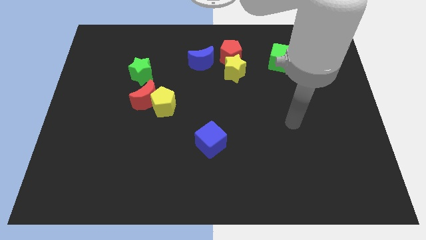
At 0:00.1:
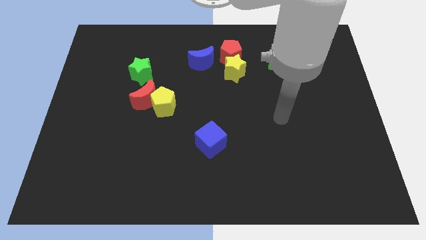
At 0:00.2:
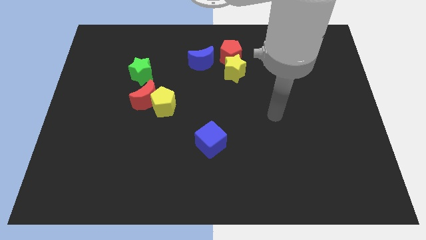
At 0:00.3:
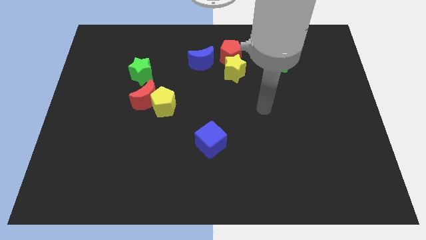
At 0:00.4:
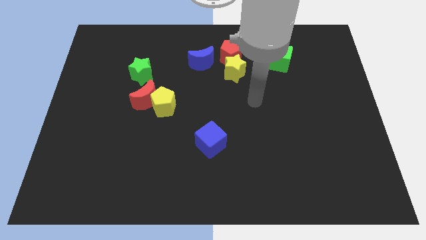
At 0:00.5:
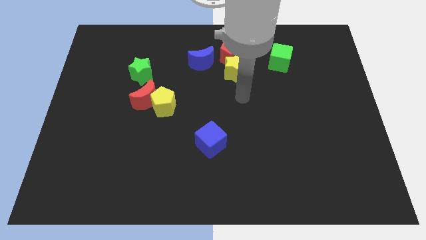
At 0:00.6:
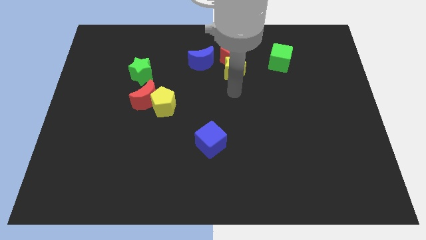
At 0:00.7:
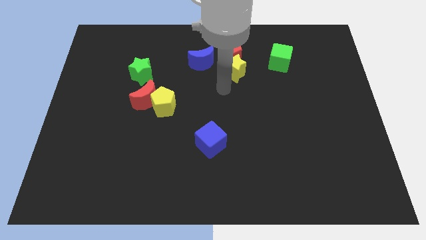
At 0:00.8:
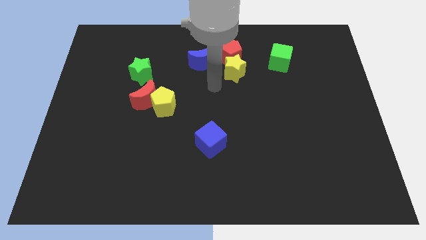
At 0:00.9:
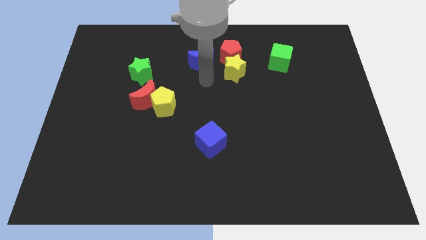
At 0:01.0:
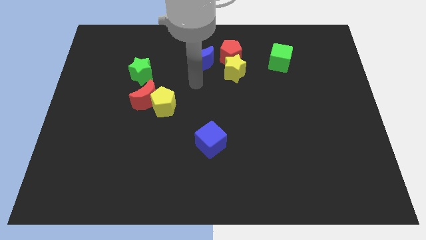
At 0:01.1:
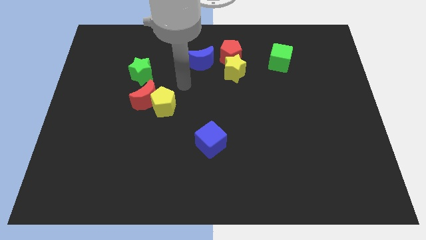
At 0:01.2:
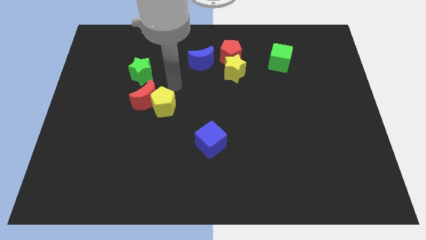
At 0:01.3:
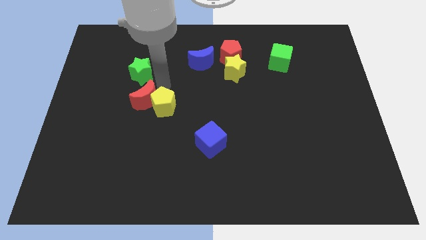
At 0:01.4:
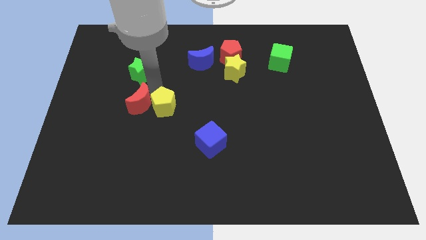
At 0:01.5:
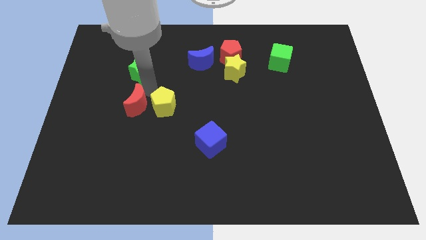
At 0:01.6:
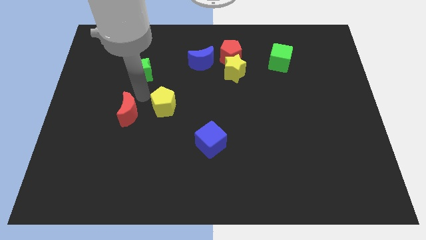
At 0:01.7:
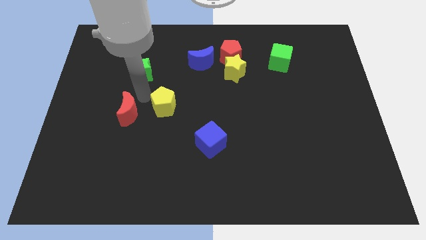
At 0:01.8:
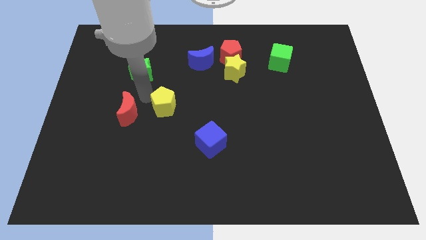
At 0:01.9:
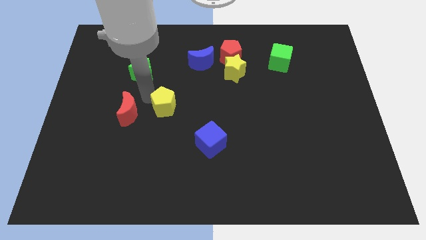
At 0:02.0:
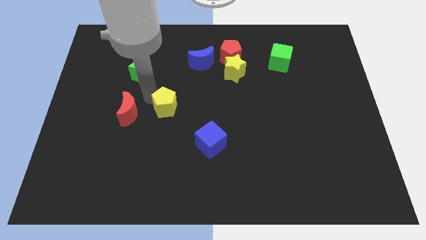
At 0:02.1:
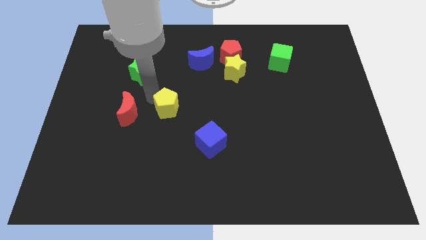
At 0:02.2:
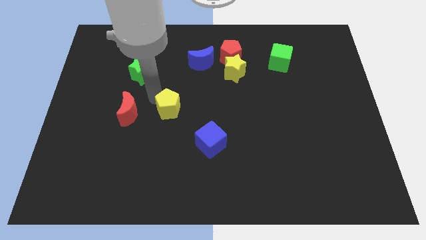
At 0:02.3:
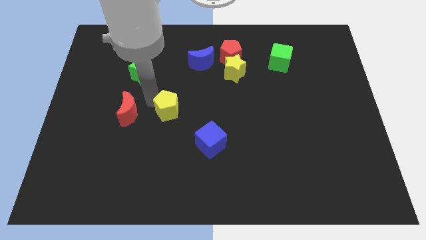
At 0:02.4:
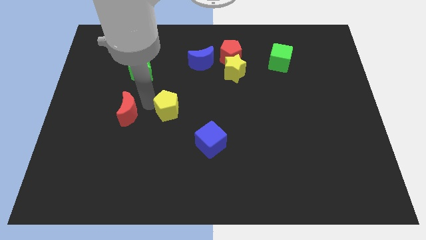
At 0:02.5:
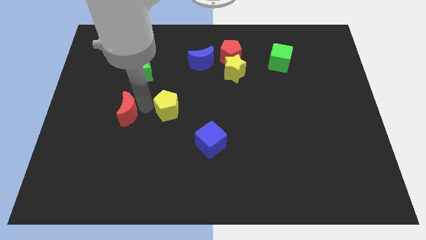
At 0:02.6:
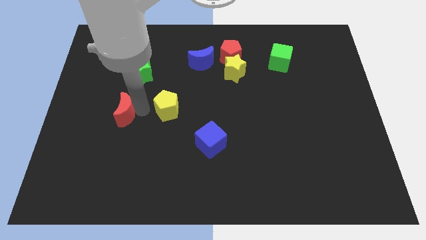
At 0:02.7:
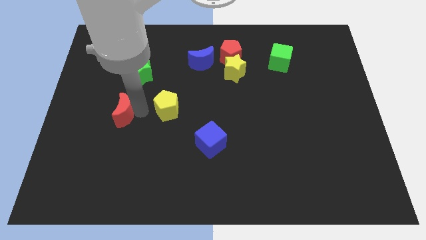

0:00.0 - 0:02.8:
pull the yellow pentagon apart from the red moon

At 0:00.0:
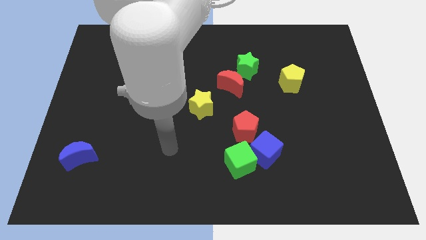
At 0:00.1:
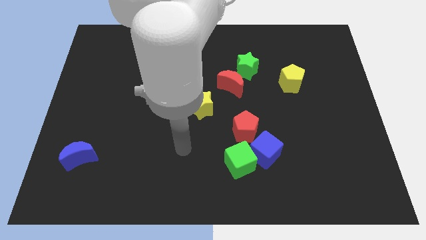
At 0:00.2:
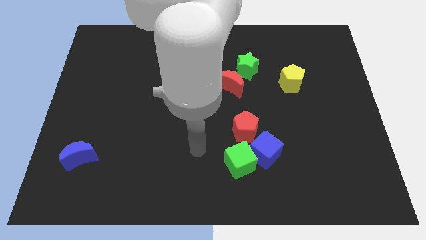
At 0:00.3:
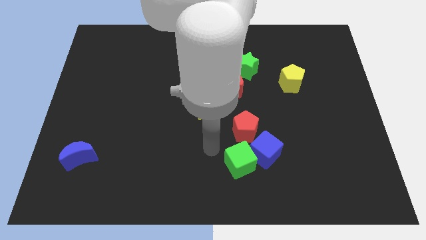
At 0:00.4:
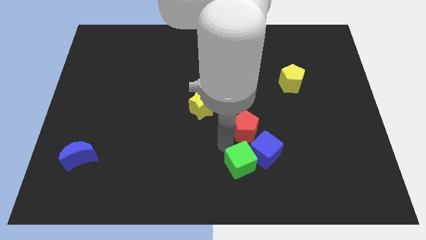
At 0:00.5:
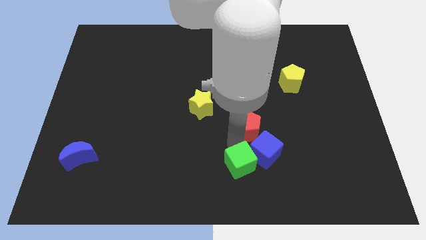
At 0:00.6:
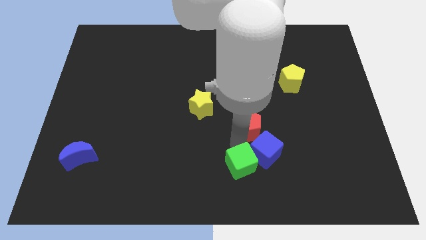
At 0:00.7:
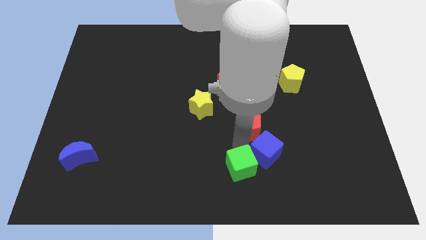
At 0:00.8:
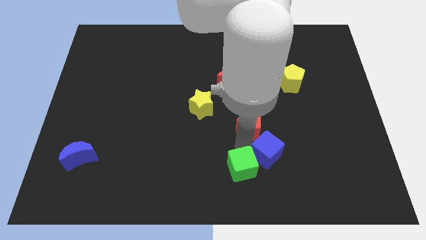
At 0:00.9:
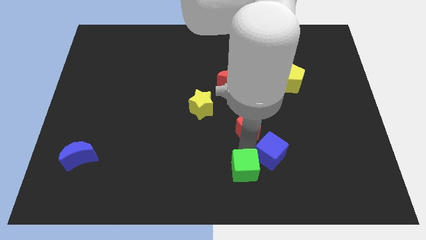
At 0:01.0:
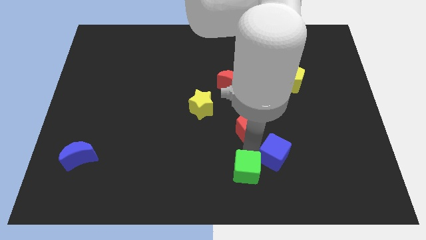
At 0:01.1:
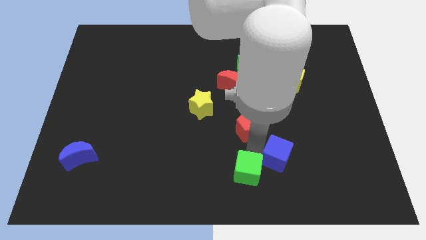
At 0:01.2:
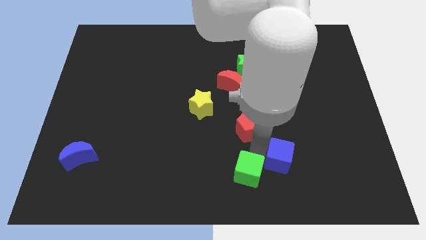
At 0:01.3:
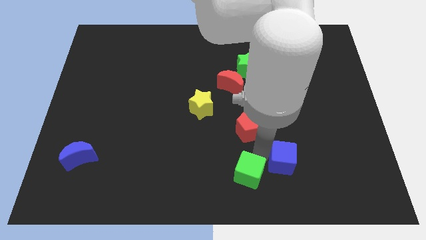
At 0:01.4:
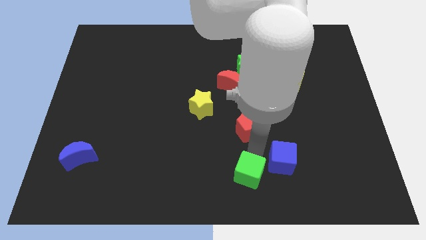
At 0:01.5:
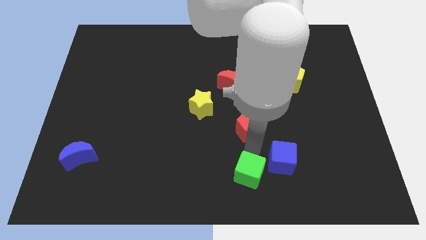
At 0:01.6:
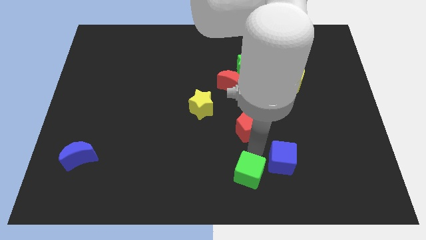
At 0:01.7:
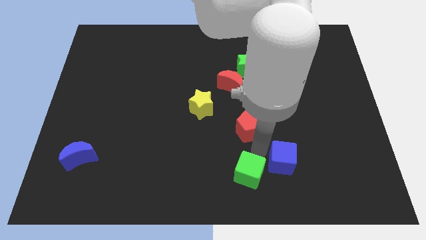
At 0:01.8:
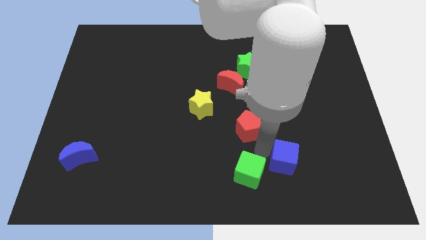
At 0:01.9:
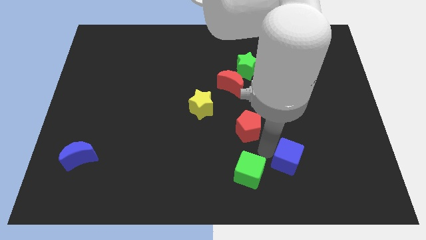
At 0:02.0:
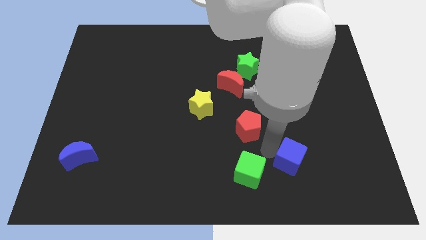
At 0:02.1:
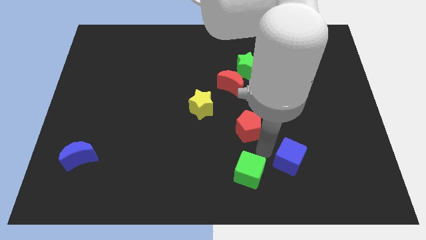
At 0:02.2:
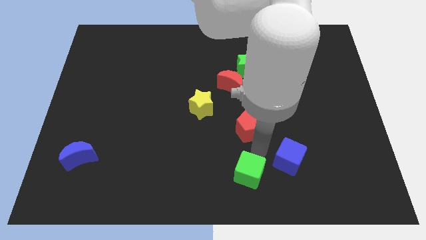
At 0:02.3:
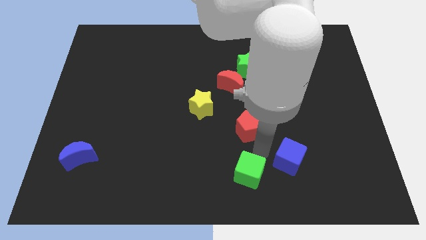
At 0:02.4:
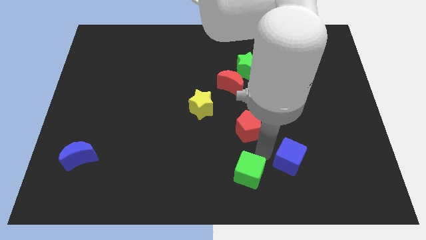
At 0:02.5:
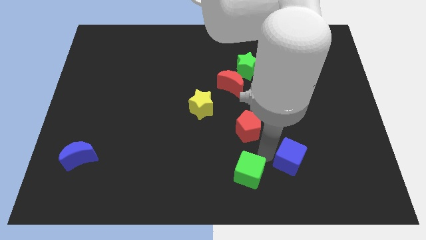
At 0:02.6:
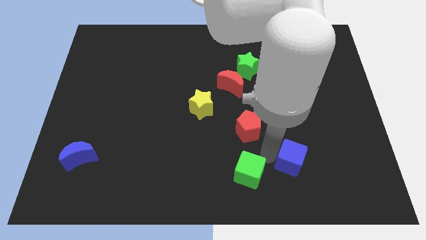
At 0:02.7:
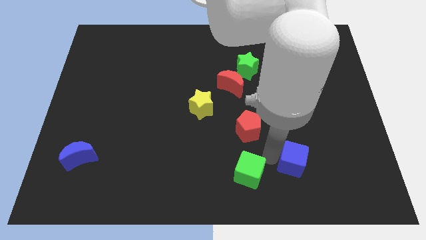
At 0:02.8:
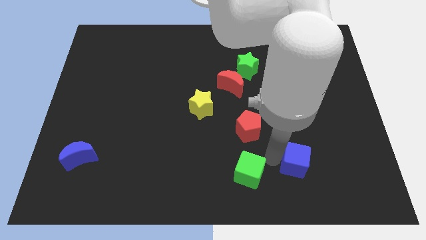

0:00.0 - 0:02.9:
separate the blue cube from the green cube and red pentagon

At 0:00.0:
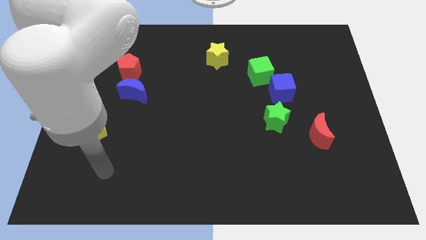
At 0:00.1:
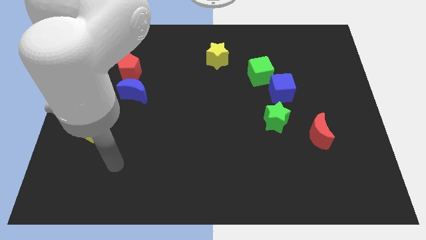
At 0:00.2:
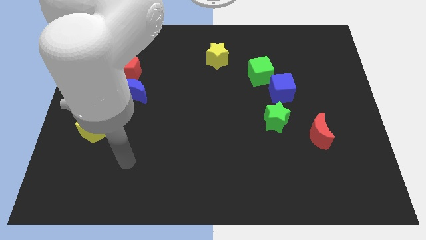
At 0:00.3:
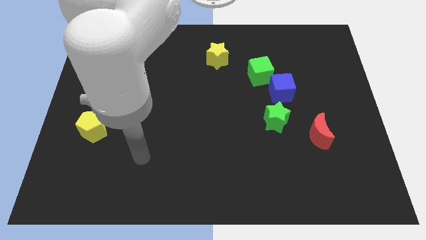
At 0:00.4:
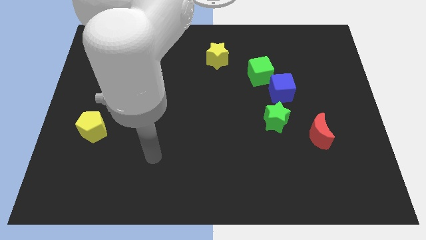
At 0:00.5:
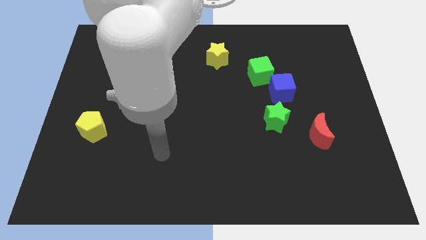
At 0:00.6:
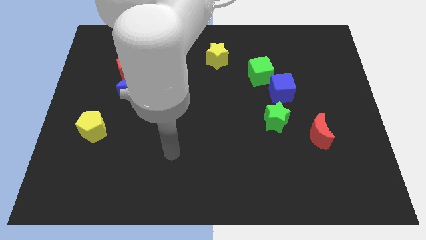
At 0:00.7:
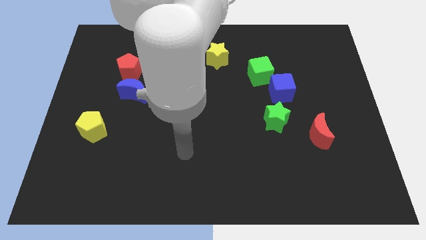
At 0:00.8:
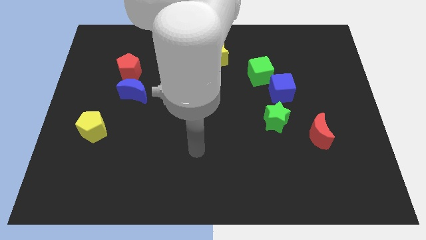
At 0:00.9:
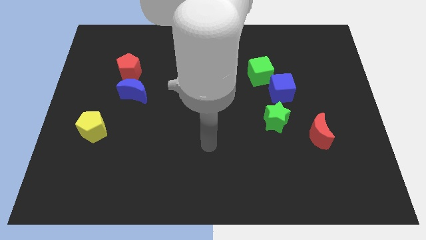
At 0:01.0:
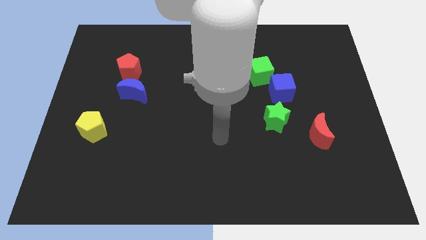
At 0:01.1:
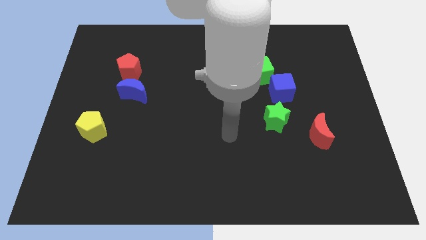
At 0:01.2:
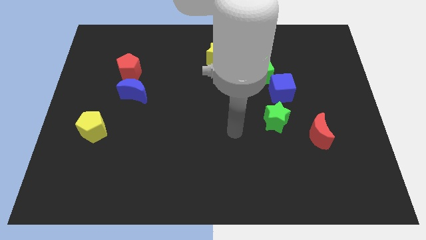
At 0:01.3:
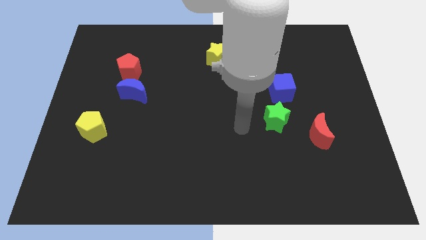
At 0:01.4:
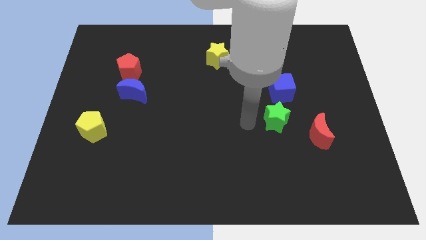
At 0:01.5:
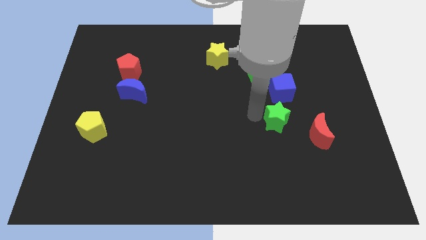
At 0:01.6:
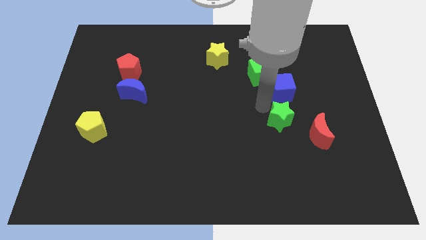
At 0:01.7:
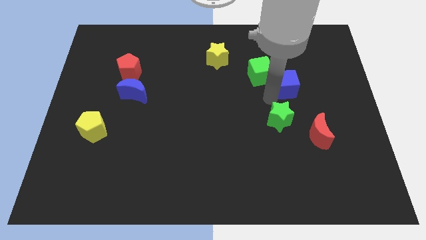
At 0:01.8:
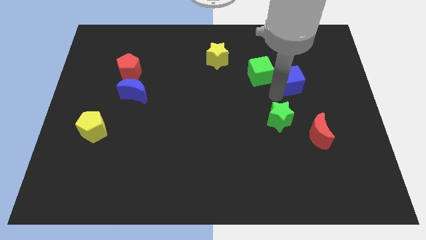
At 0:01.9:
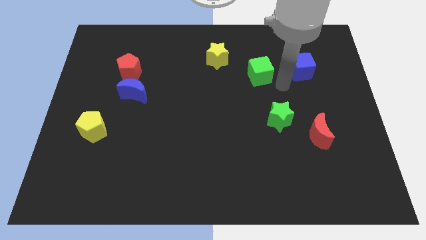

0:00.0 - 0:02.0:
separate the green cube from the blue cube

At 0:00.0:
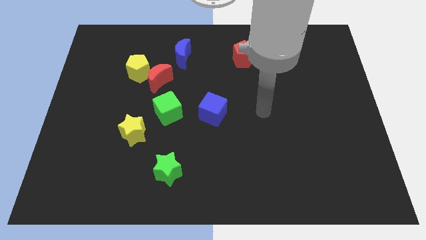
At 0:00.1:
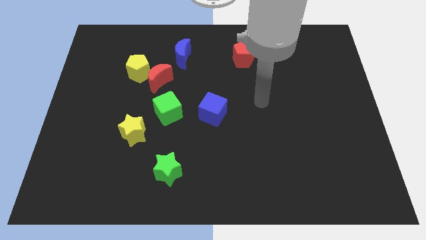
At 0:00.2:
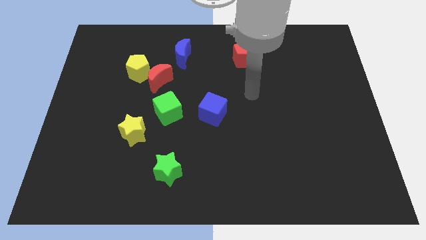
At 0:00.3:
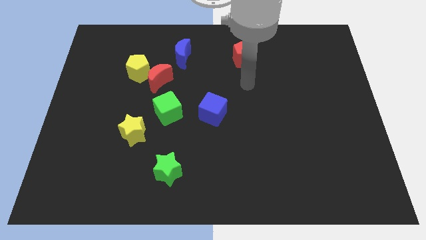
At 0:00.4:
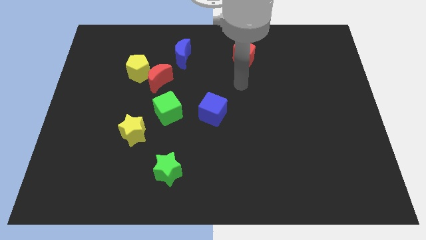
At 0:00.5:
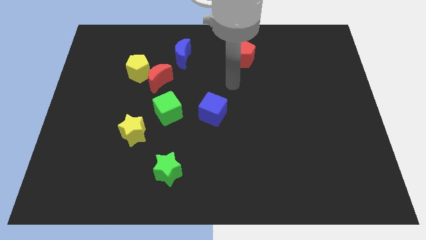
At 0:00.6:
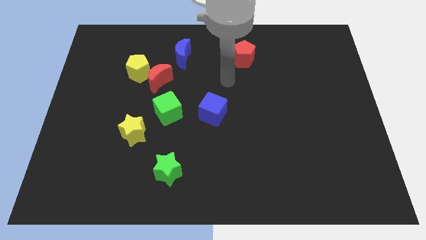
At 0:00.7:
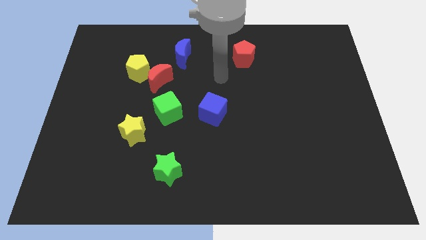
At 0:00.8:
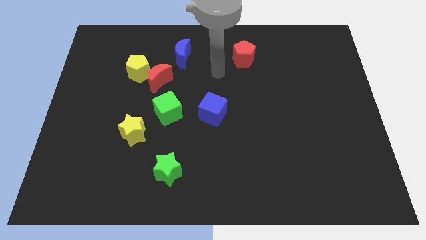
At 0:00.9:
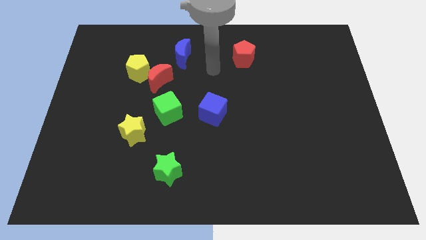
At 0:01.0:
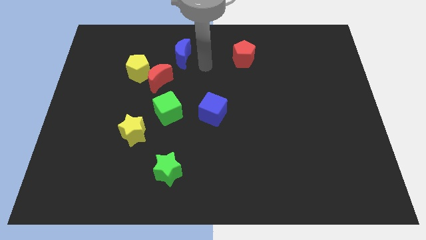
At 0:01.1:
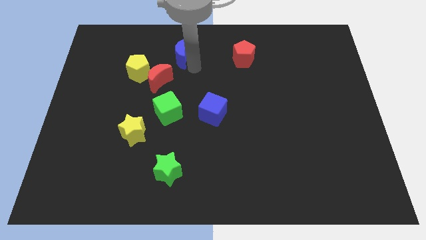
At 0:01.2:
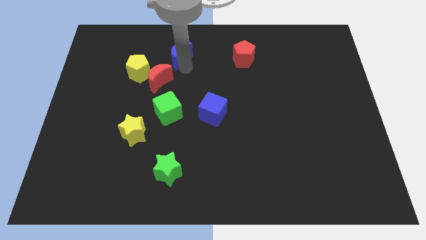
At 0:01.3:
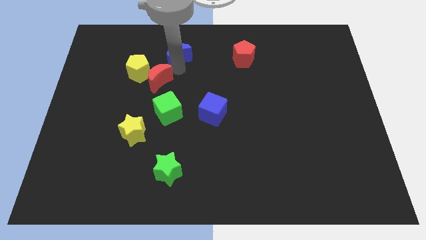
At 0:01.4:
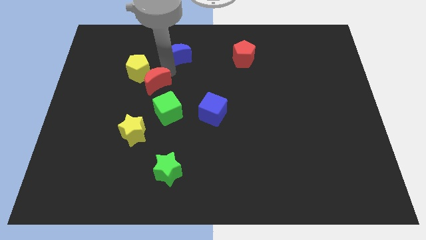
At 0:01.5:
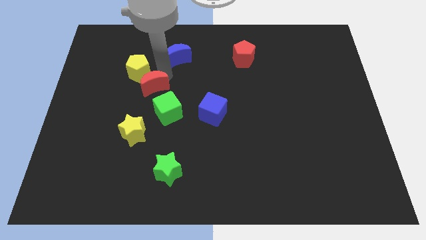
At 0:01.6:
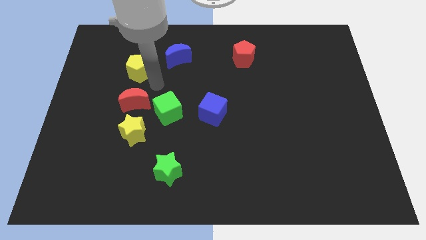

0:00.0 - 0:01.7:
move the yellow pentagon away from the red moon
